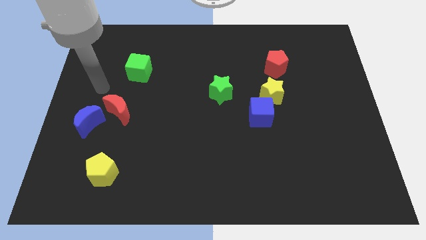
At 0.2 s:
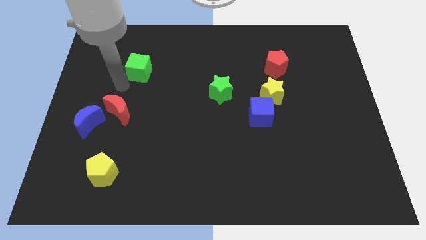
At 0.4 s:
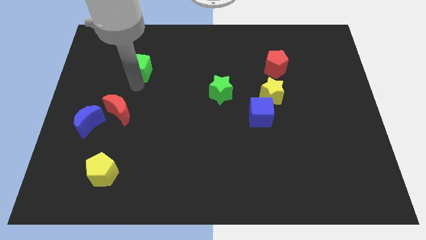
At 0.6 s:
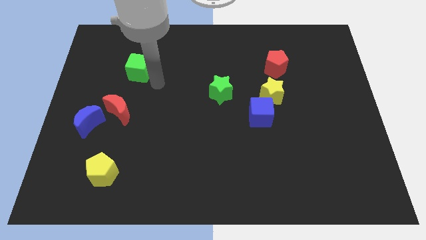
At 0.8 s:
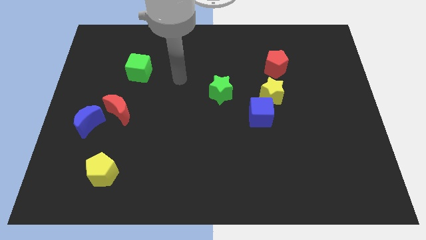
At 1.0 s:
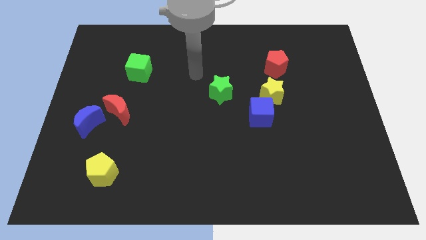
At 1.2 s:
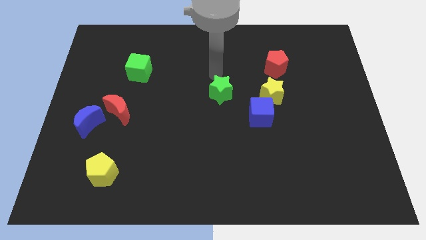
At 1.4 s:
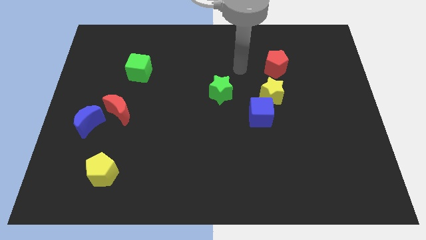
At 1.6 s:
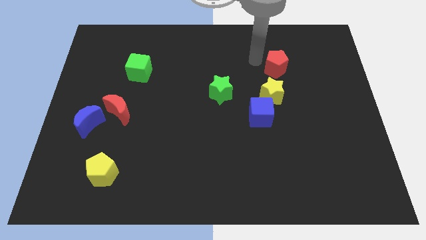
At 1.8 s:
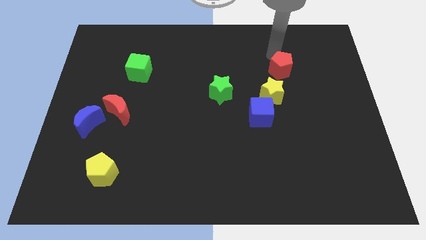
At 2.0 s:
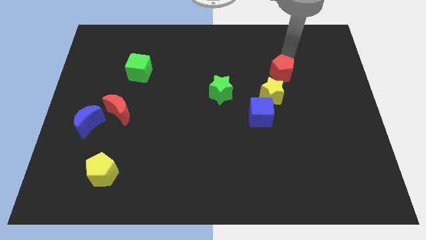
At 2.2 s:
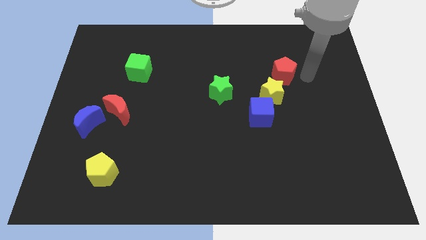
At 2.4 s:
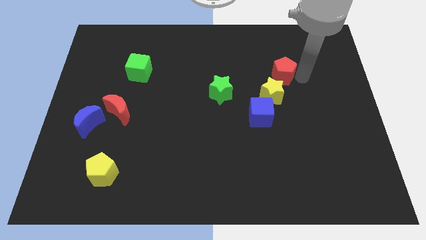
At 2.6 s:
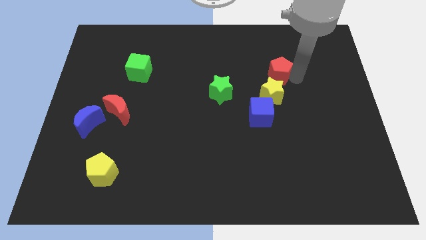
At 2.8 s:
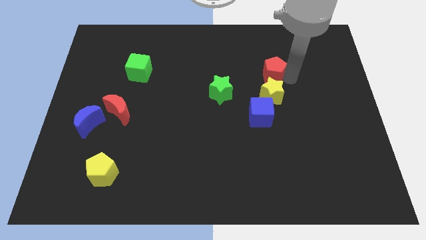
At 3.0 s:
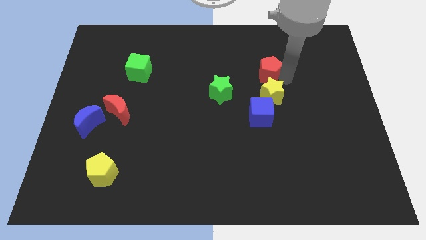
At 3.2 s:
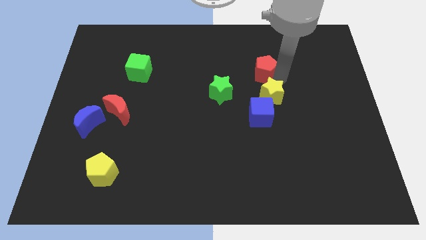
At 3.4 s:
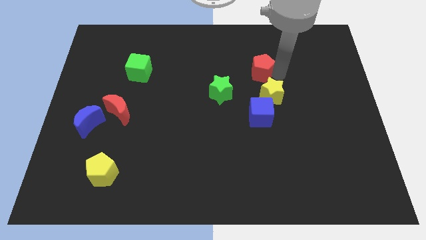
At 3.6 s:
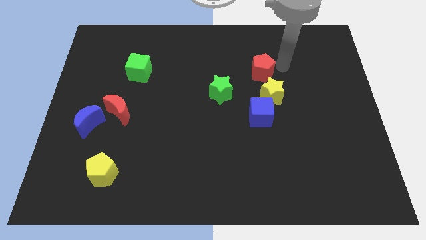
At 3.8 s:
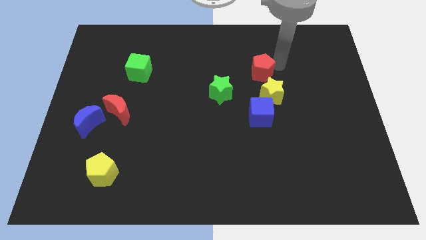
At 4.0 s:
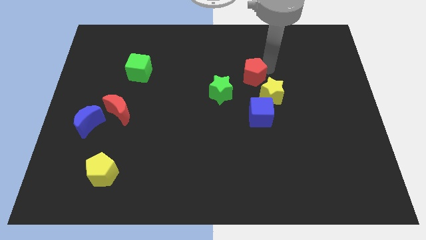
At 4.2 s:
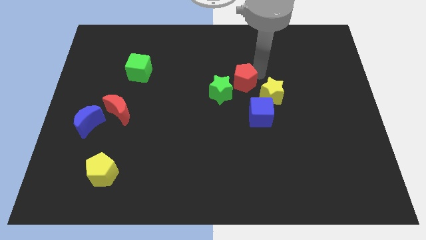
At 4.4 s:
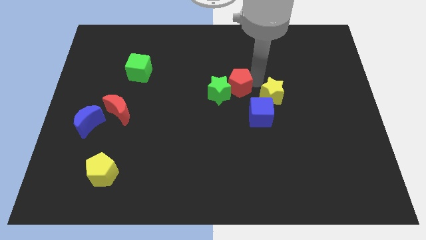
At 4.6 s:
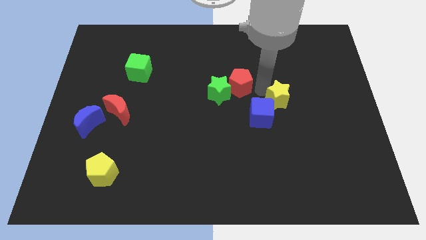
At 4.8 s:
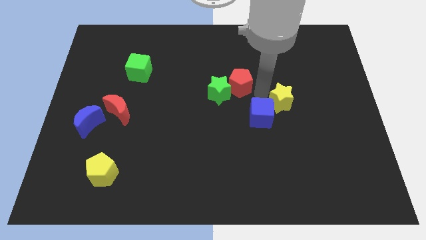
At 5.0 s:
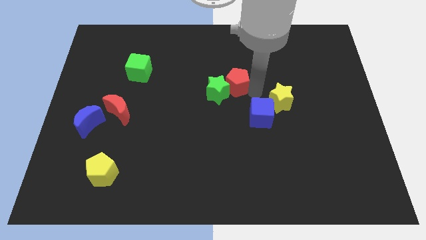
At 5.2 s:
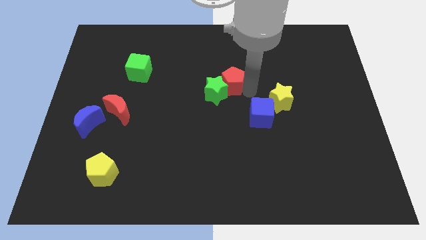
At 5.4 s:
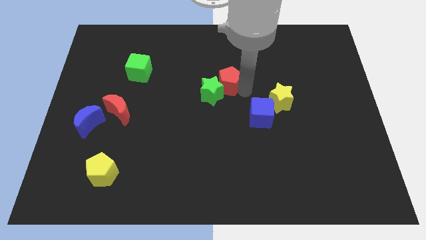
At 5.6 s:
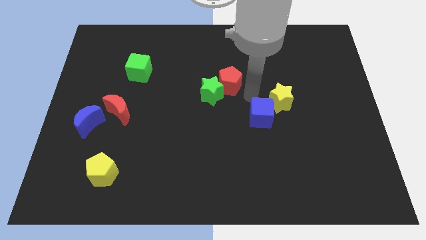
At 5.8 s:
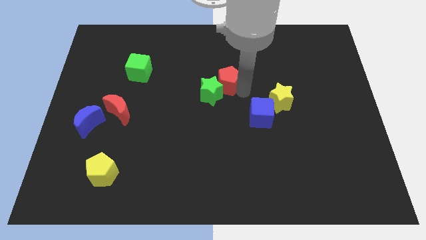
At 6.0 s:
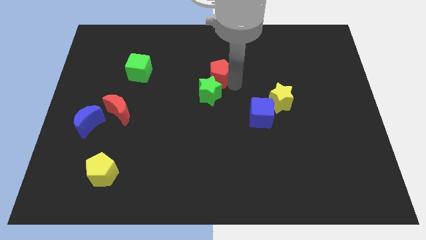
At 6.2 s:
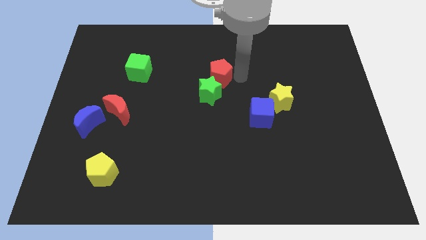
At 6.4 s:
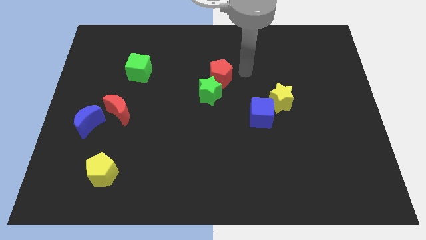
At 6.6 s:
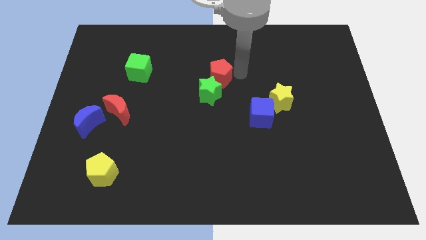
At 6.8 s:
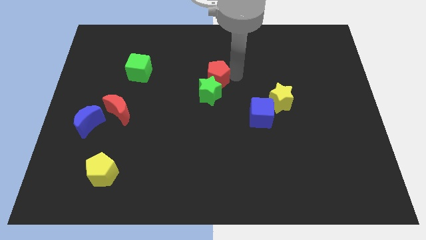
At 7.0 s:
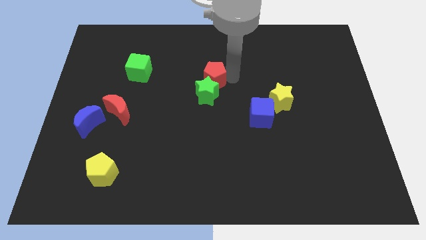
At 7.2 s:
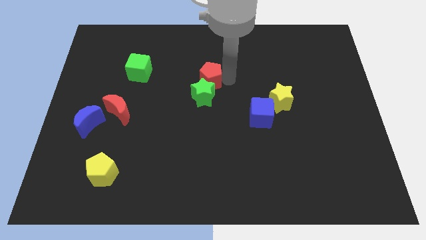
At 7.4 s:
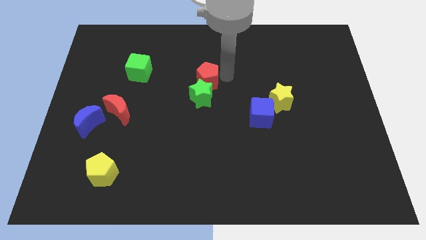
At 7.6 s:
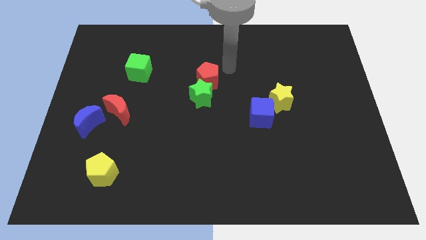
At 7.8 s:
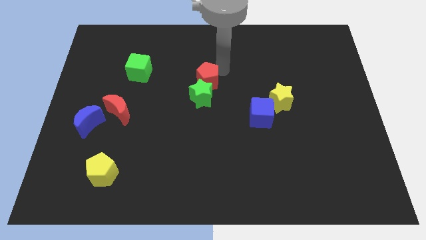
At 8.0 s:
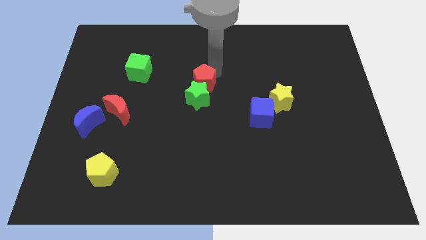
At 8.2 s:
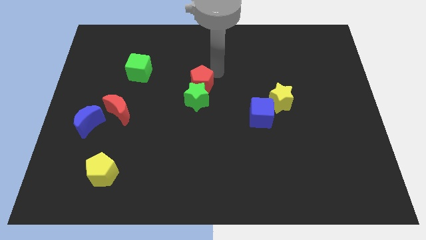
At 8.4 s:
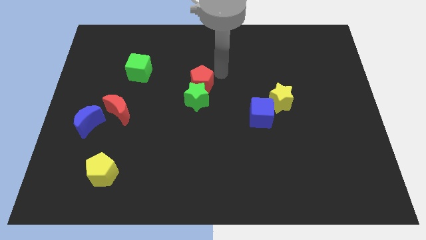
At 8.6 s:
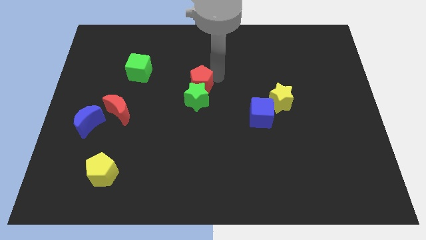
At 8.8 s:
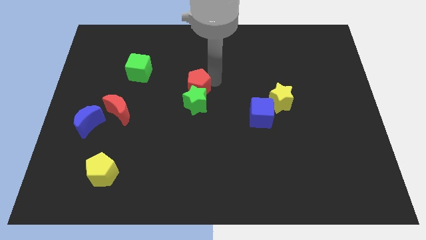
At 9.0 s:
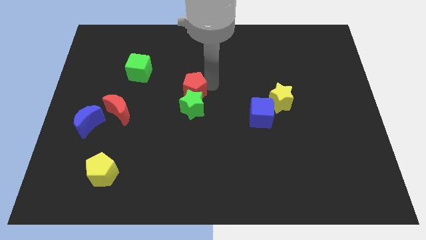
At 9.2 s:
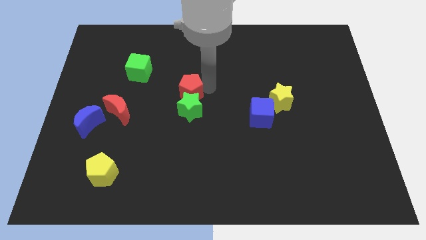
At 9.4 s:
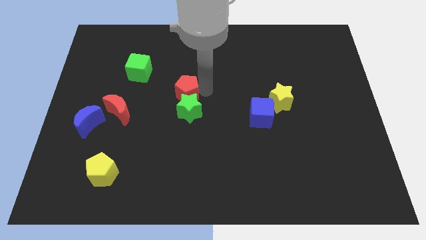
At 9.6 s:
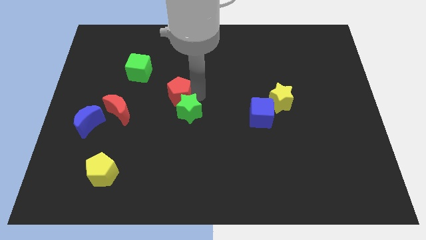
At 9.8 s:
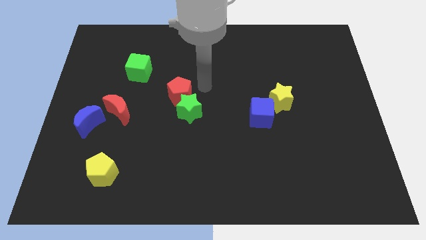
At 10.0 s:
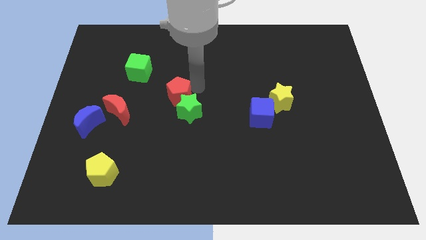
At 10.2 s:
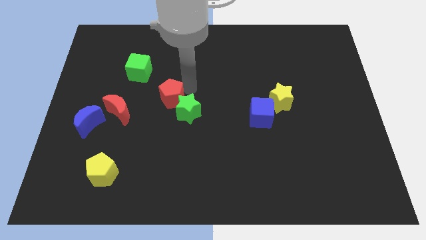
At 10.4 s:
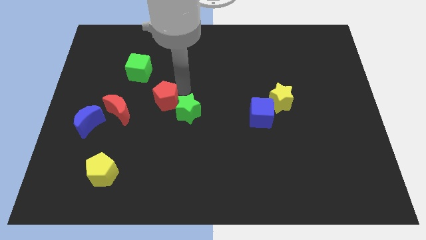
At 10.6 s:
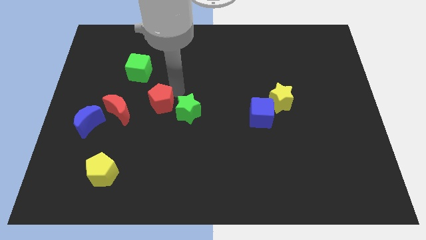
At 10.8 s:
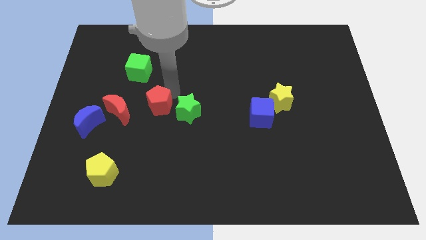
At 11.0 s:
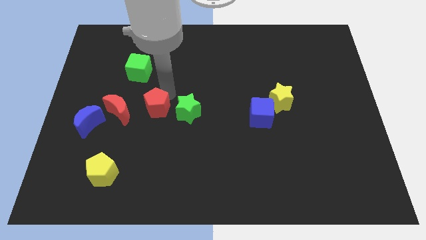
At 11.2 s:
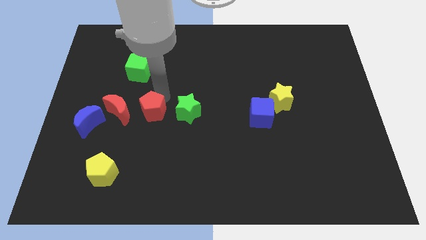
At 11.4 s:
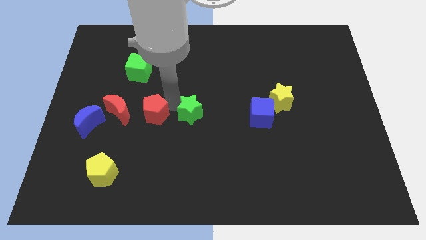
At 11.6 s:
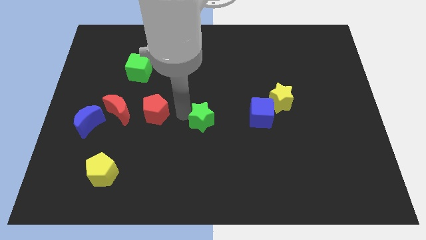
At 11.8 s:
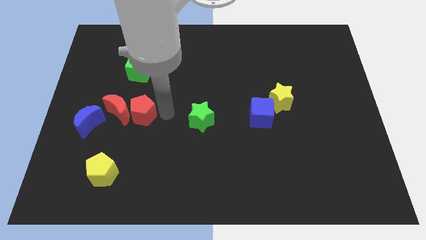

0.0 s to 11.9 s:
put the red pentagon next to the red moon

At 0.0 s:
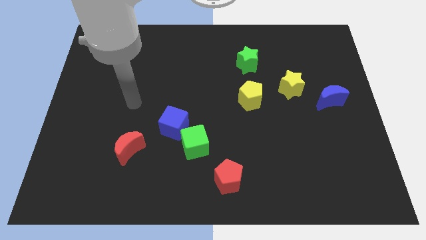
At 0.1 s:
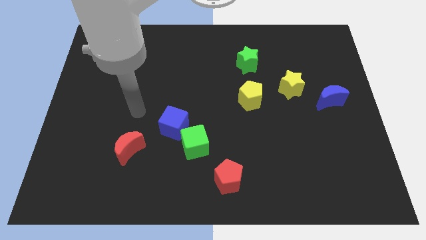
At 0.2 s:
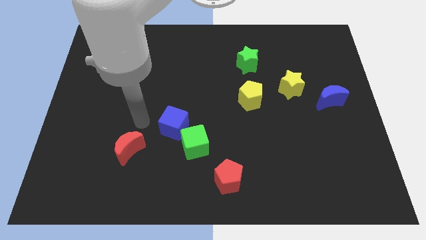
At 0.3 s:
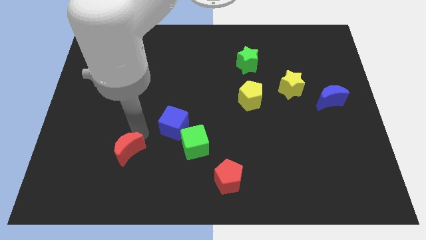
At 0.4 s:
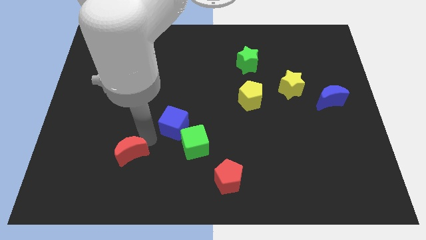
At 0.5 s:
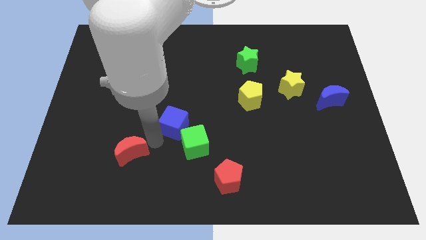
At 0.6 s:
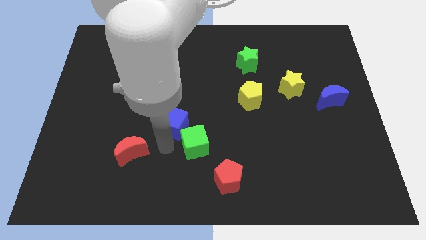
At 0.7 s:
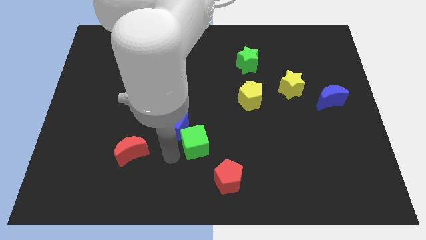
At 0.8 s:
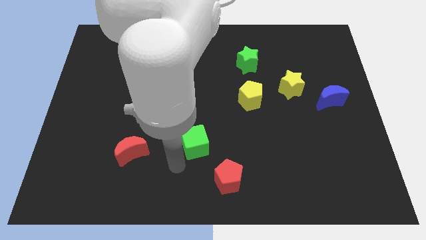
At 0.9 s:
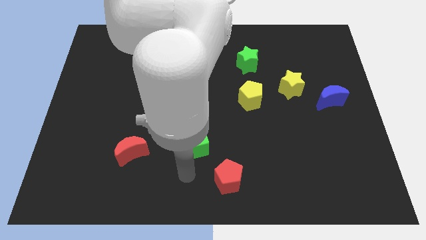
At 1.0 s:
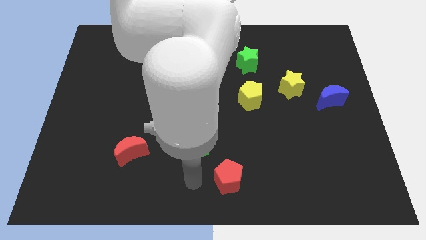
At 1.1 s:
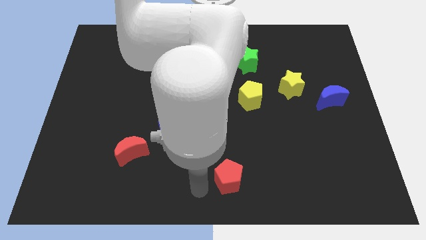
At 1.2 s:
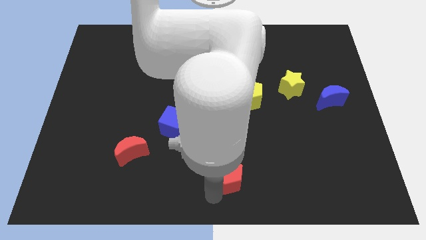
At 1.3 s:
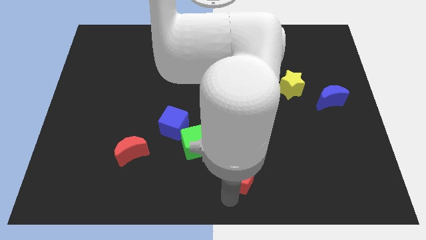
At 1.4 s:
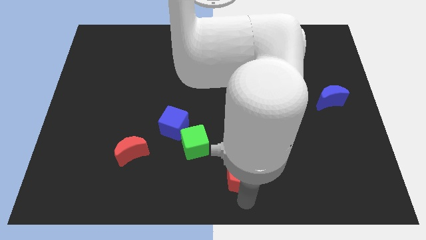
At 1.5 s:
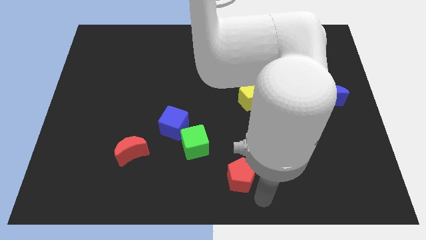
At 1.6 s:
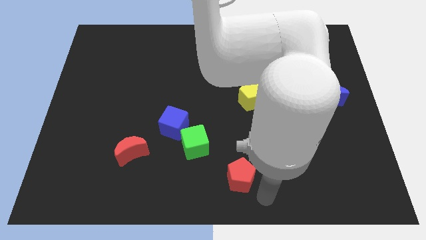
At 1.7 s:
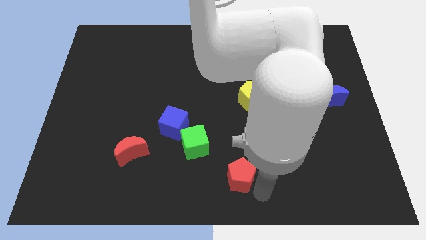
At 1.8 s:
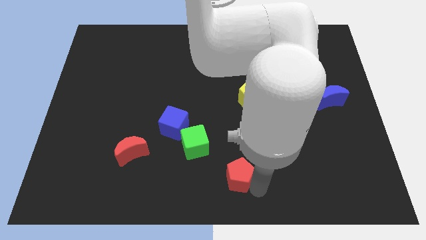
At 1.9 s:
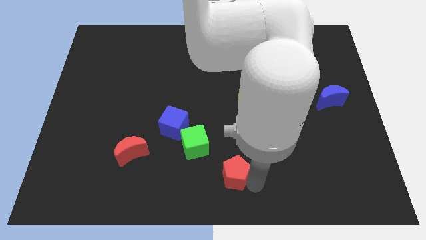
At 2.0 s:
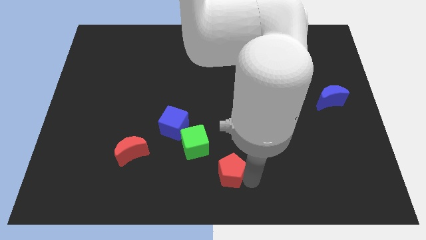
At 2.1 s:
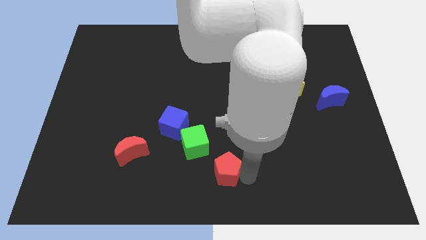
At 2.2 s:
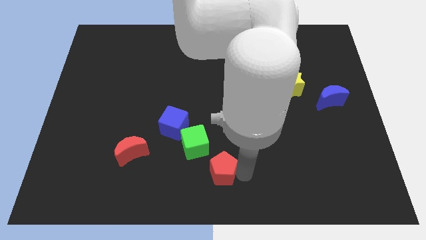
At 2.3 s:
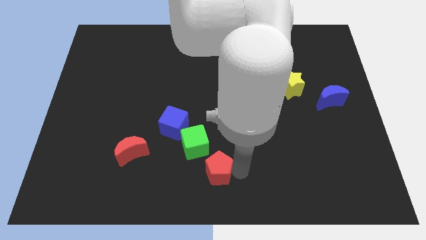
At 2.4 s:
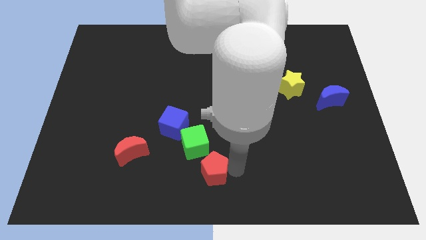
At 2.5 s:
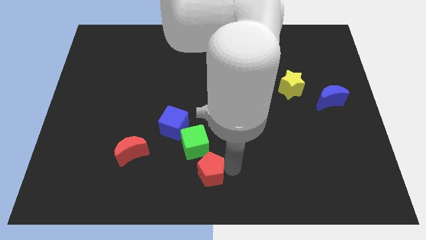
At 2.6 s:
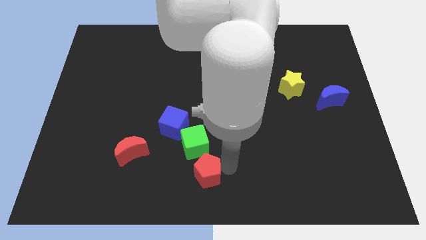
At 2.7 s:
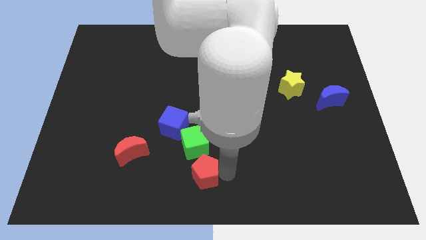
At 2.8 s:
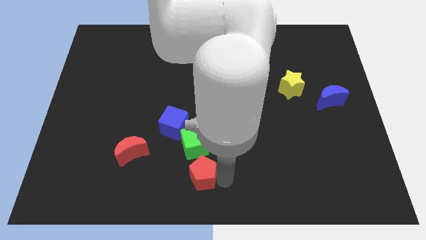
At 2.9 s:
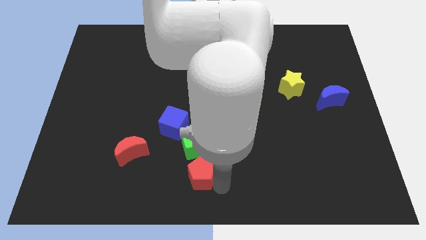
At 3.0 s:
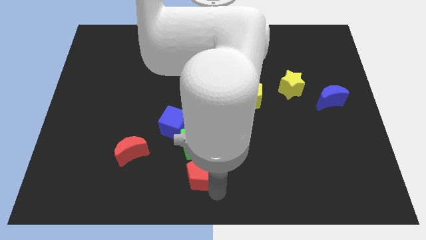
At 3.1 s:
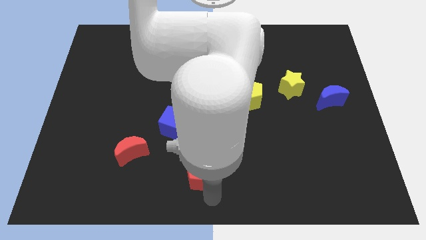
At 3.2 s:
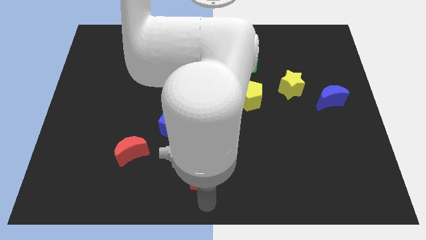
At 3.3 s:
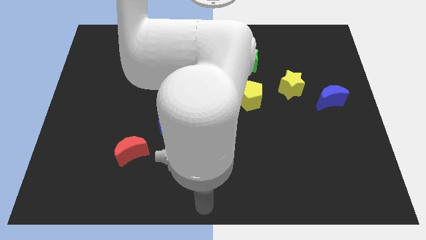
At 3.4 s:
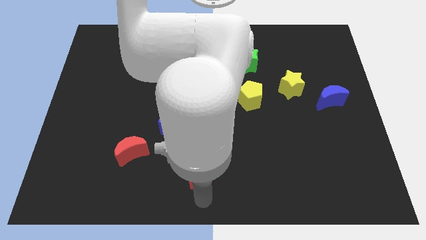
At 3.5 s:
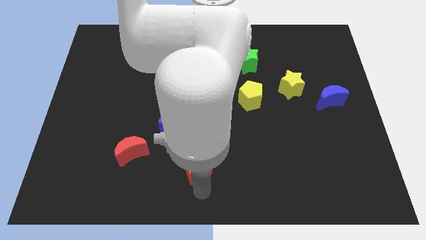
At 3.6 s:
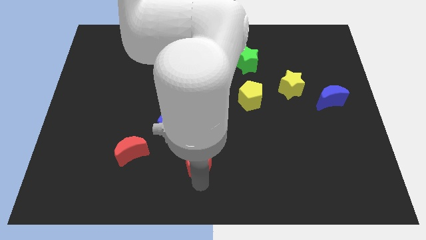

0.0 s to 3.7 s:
put the red pentagon towards the green cube
